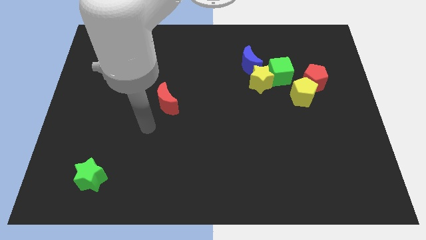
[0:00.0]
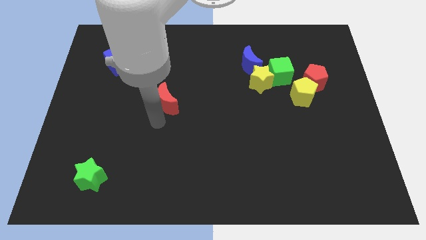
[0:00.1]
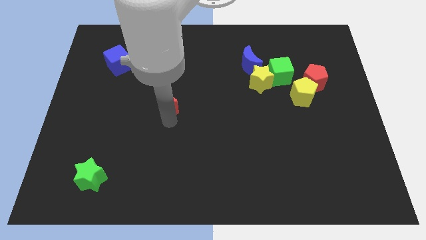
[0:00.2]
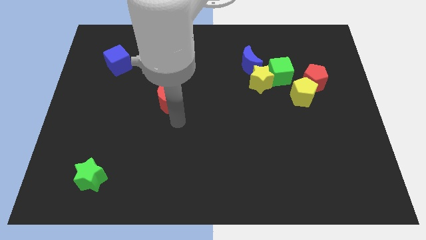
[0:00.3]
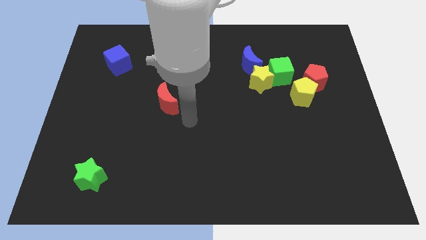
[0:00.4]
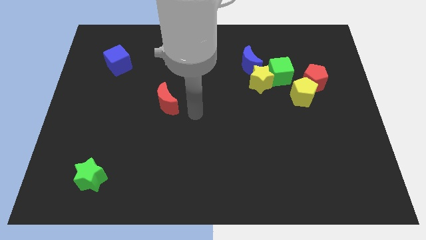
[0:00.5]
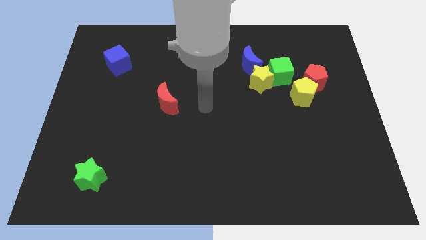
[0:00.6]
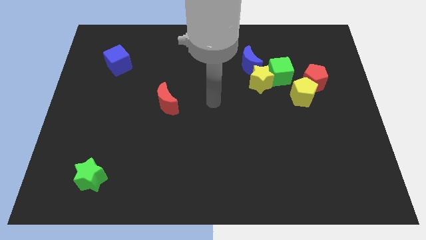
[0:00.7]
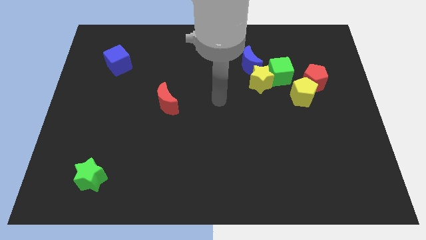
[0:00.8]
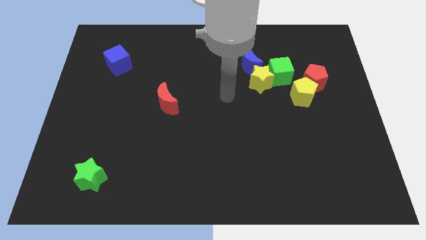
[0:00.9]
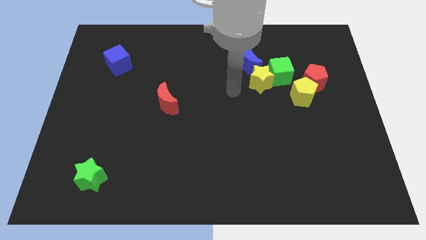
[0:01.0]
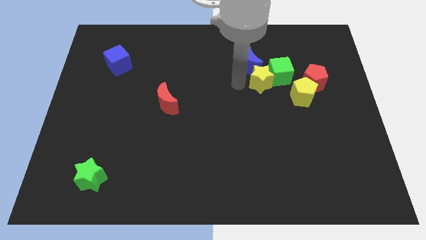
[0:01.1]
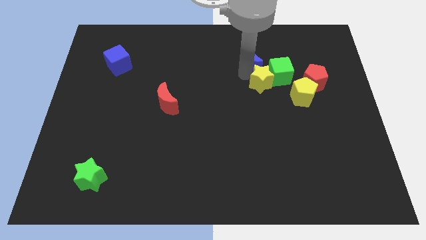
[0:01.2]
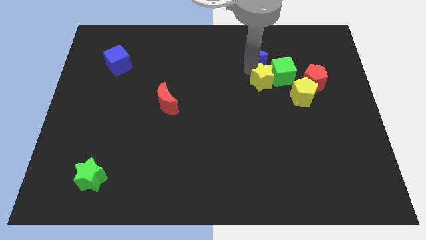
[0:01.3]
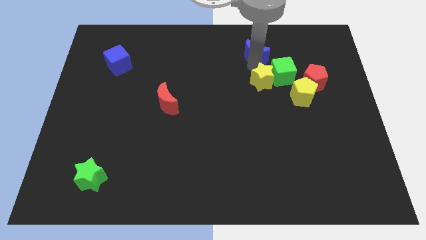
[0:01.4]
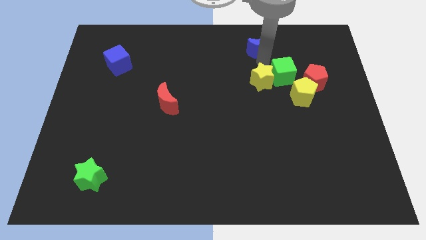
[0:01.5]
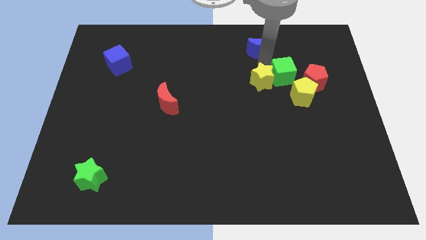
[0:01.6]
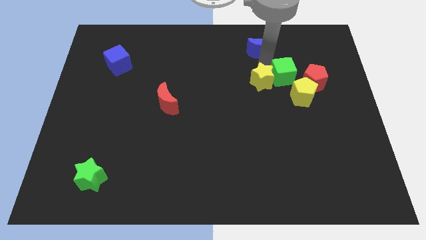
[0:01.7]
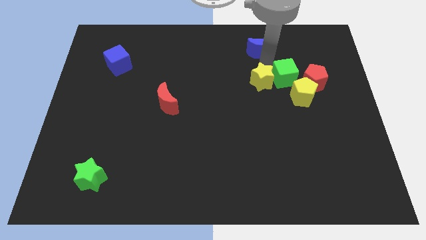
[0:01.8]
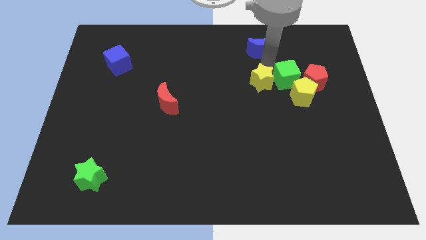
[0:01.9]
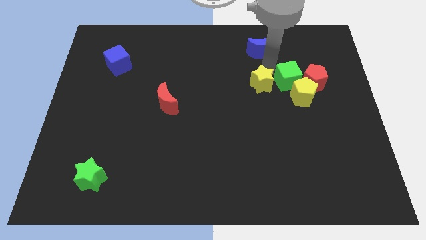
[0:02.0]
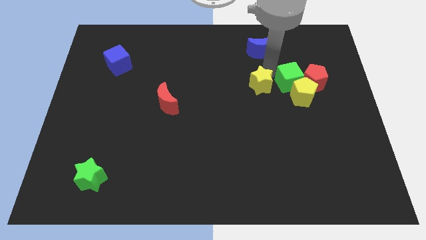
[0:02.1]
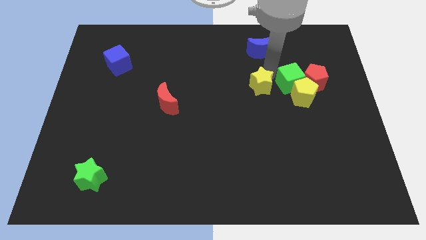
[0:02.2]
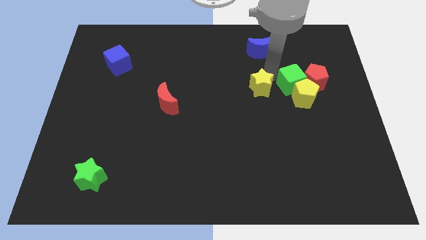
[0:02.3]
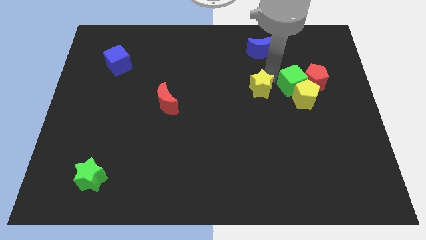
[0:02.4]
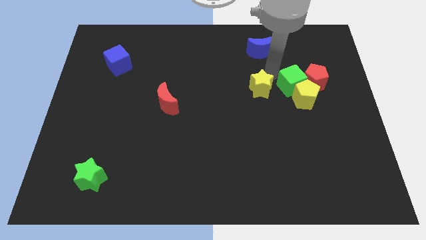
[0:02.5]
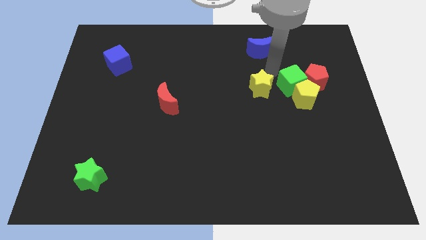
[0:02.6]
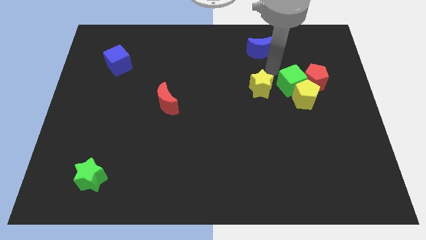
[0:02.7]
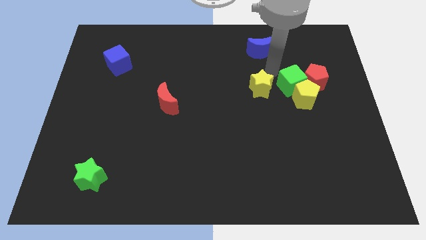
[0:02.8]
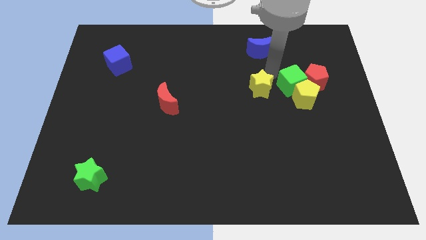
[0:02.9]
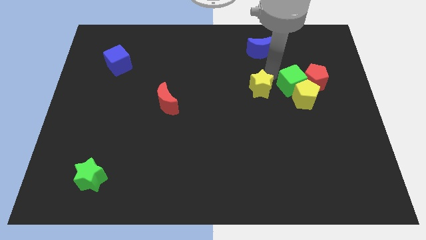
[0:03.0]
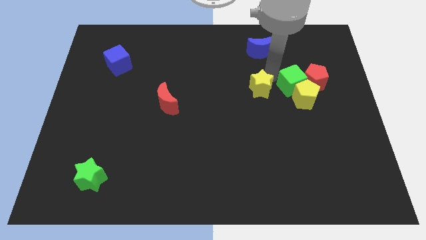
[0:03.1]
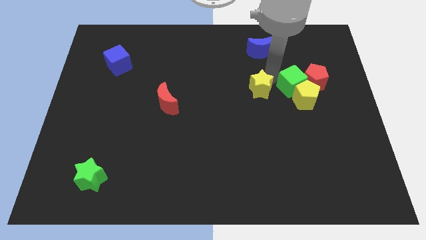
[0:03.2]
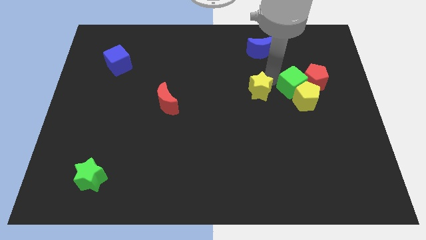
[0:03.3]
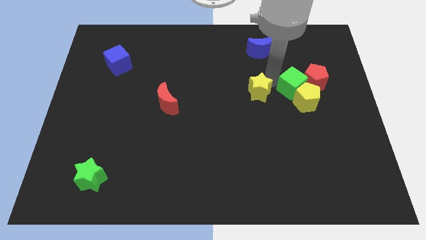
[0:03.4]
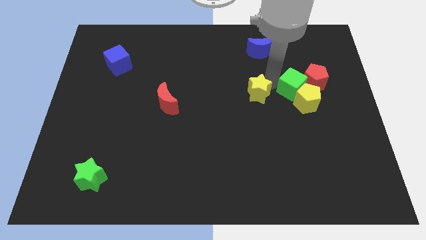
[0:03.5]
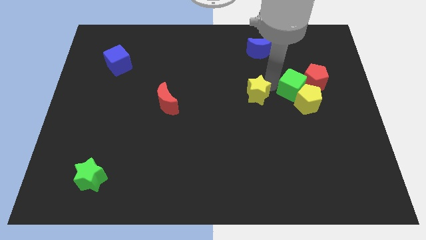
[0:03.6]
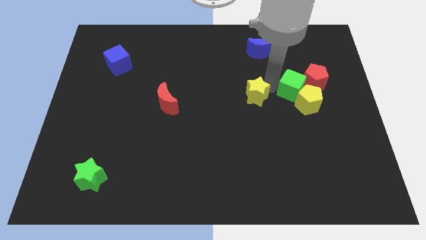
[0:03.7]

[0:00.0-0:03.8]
separate the yellow star from the green cube and blue moon

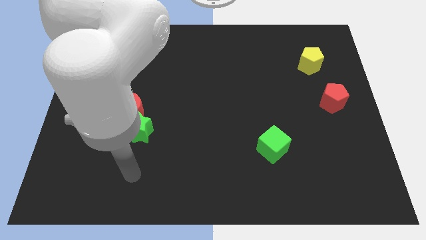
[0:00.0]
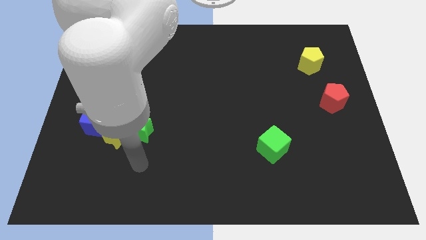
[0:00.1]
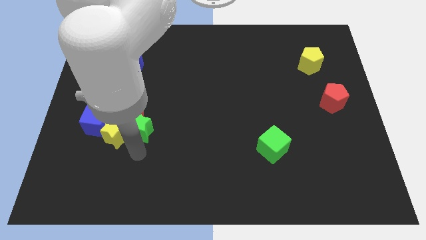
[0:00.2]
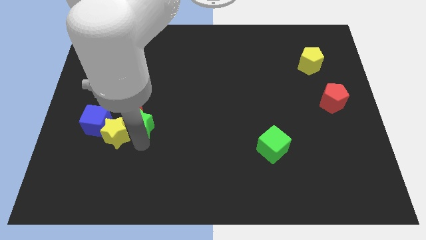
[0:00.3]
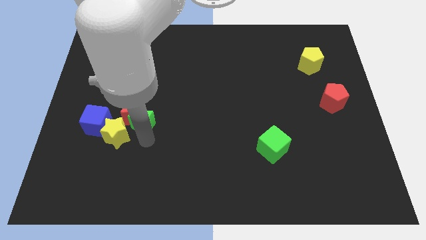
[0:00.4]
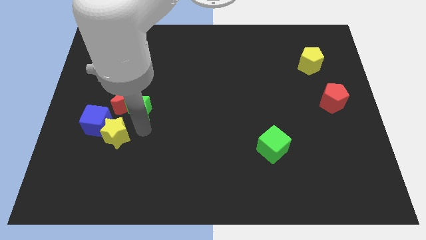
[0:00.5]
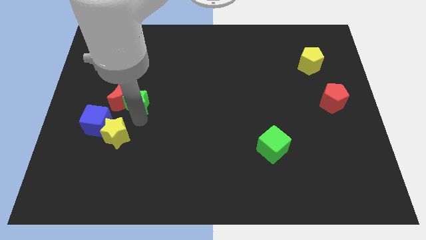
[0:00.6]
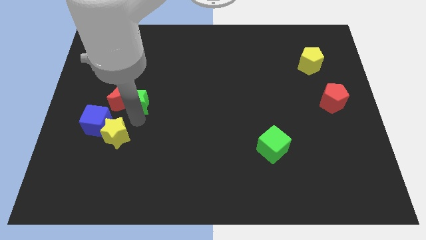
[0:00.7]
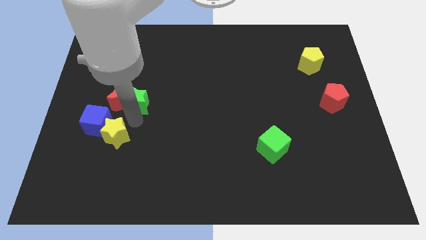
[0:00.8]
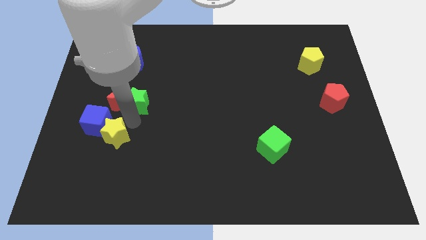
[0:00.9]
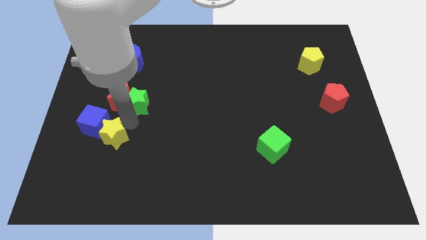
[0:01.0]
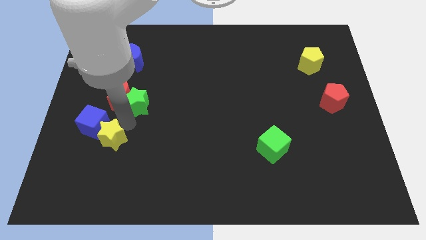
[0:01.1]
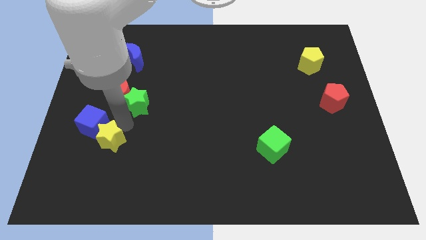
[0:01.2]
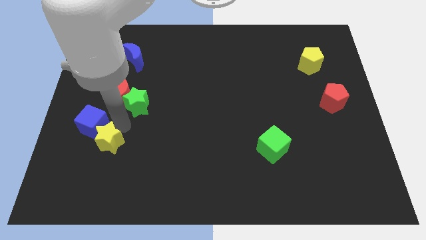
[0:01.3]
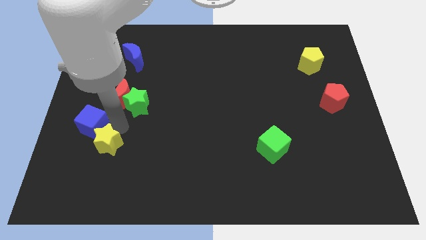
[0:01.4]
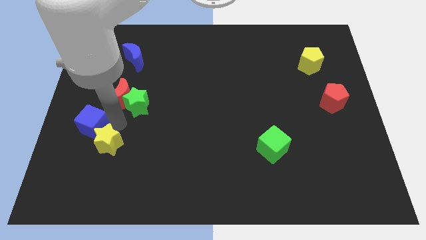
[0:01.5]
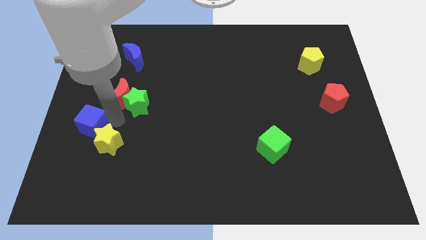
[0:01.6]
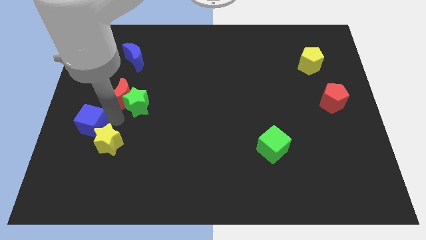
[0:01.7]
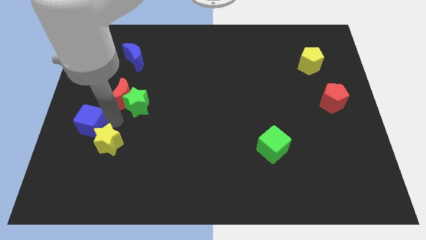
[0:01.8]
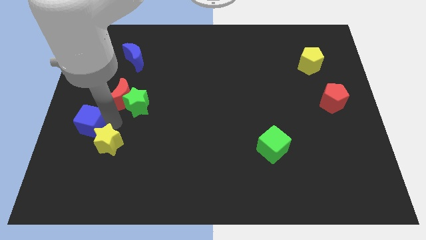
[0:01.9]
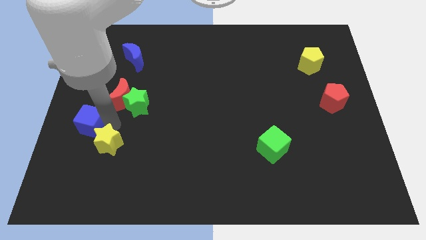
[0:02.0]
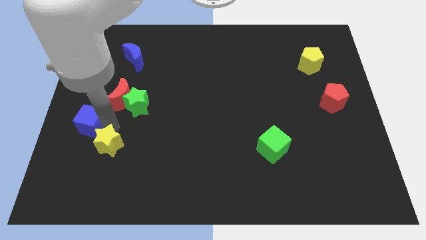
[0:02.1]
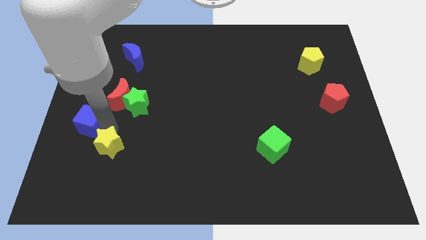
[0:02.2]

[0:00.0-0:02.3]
pull the yellow star apart from the green star, blue cube, and red moon

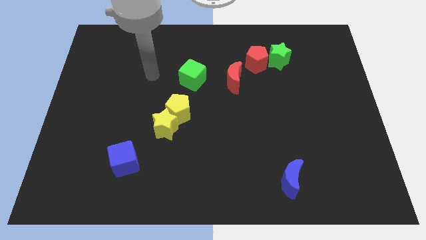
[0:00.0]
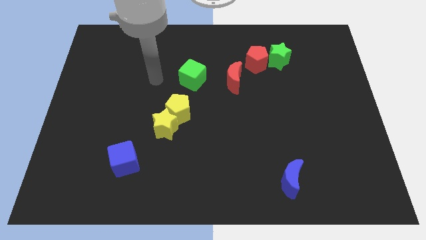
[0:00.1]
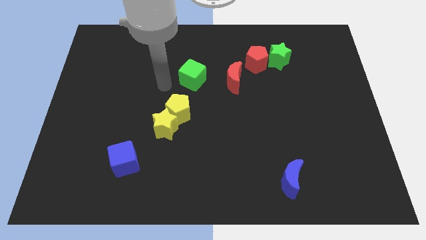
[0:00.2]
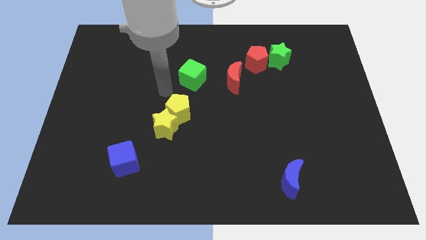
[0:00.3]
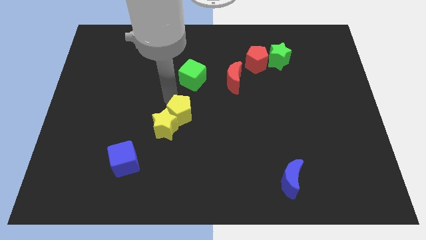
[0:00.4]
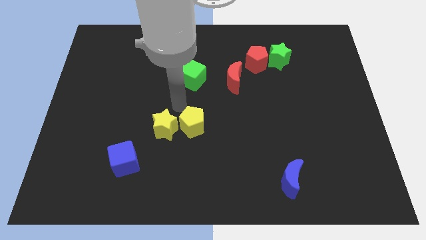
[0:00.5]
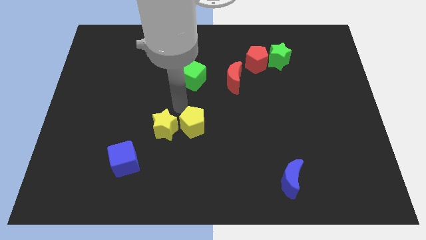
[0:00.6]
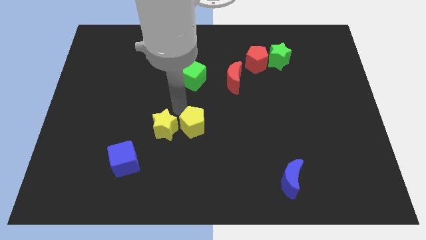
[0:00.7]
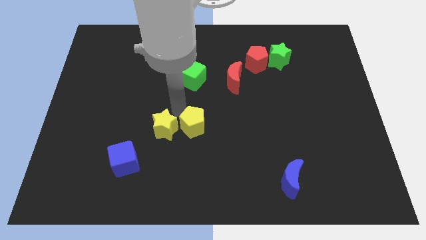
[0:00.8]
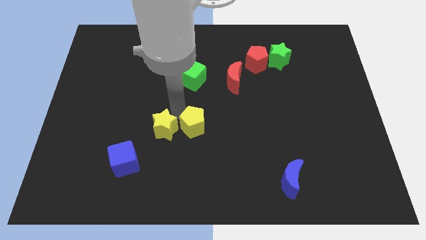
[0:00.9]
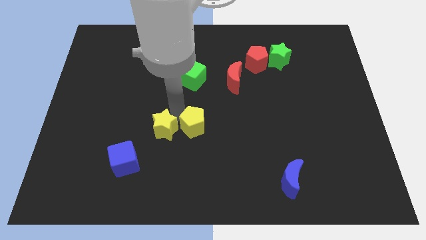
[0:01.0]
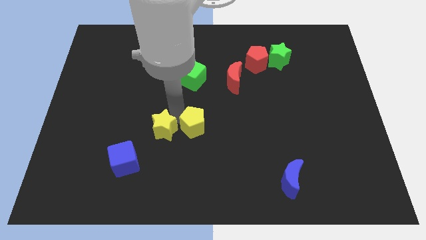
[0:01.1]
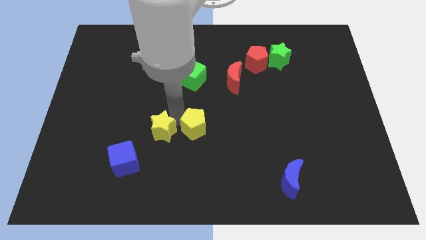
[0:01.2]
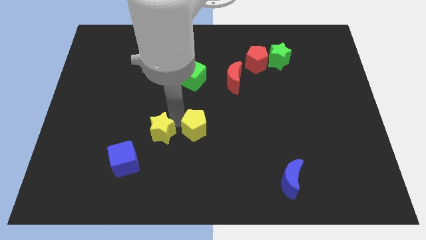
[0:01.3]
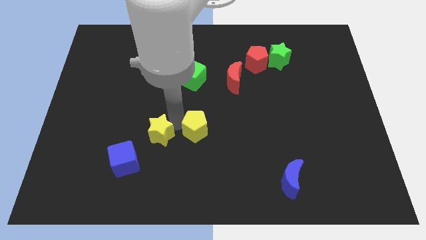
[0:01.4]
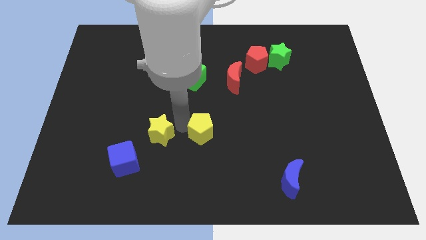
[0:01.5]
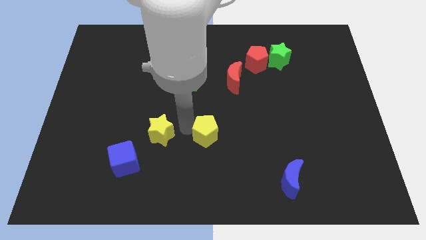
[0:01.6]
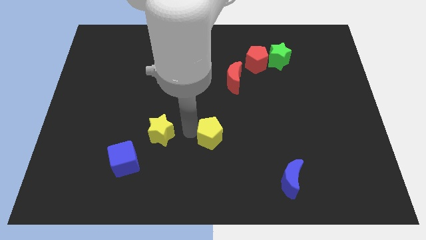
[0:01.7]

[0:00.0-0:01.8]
separate the yellow star from the yellow pentagon

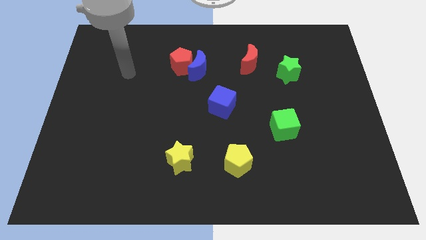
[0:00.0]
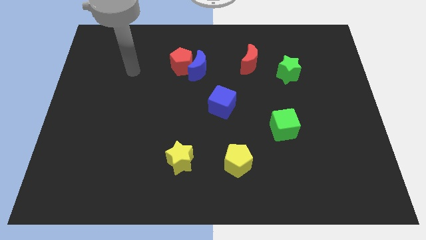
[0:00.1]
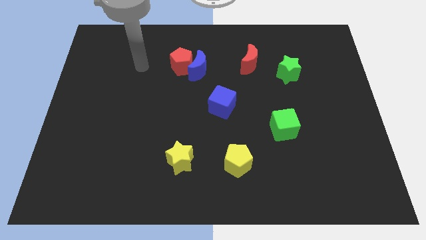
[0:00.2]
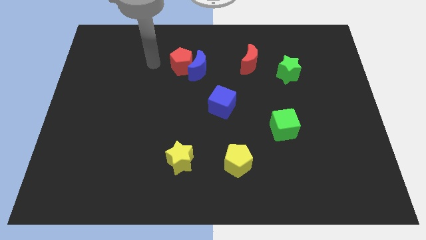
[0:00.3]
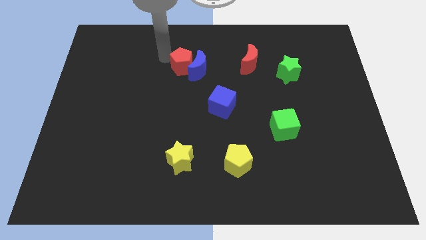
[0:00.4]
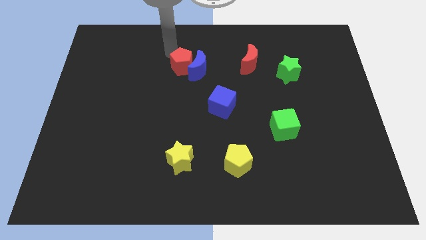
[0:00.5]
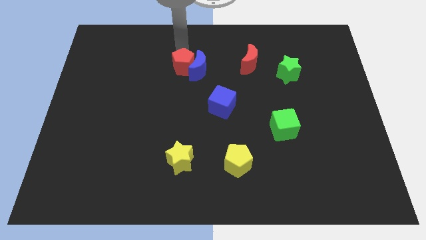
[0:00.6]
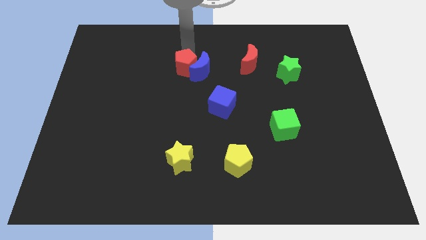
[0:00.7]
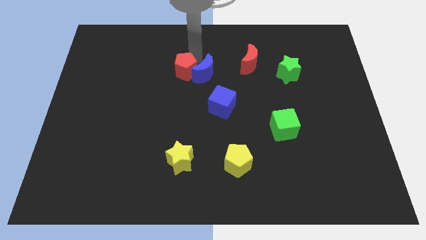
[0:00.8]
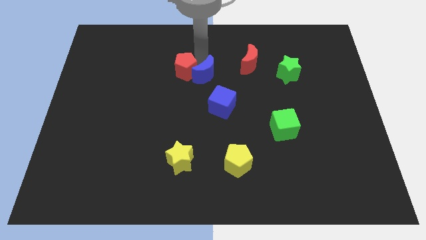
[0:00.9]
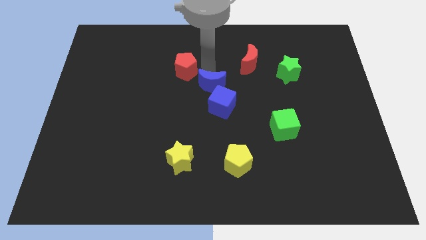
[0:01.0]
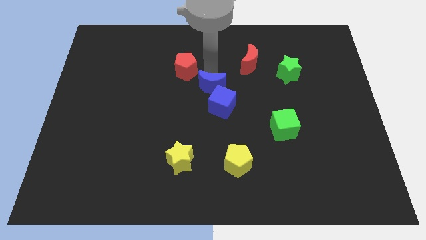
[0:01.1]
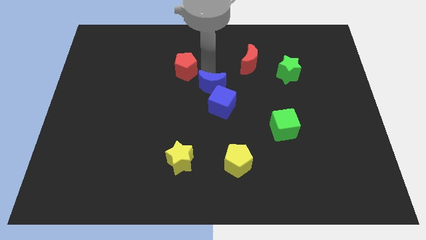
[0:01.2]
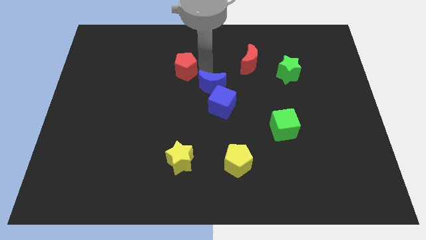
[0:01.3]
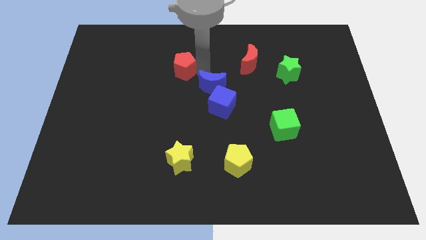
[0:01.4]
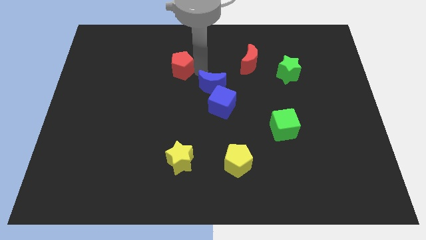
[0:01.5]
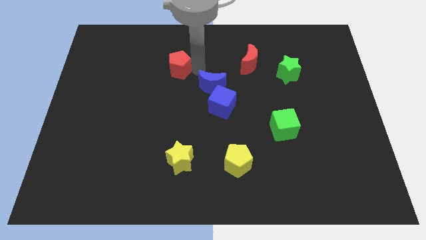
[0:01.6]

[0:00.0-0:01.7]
separate the red pentagon from the blue moon
